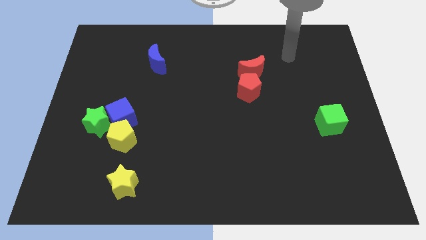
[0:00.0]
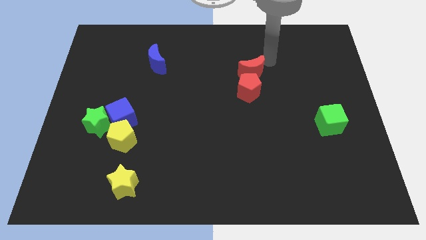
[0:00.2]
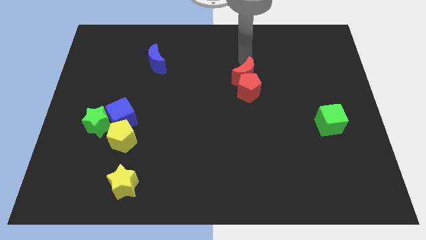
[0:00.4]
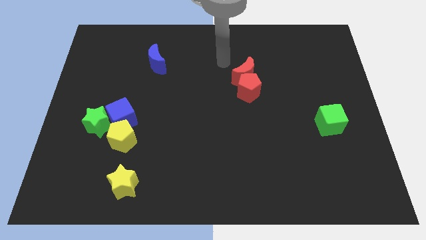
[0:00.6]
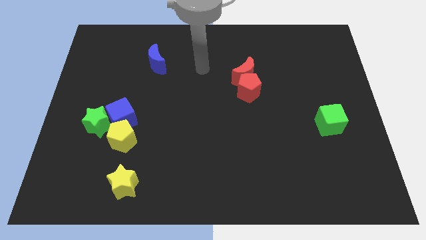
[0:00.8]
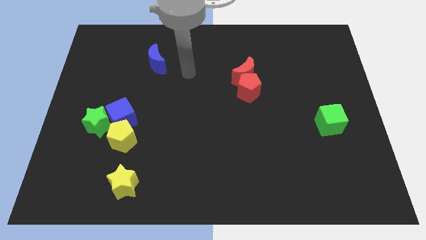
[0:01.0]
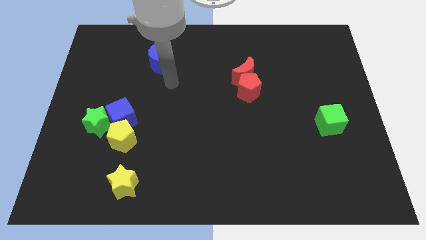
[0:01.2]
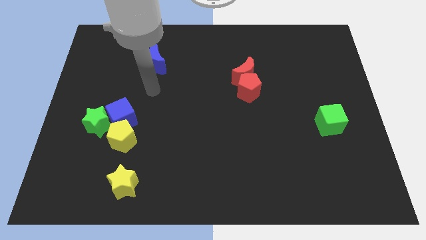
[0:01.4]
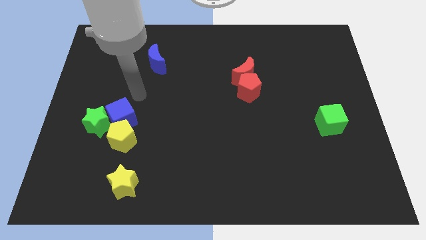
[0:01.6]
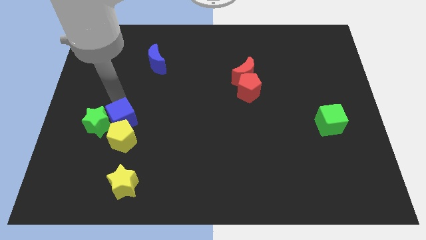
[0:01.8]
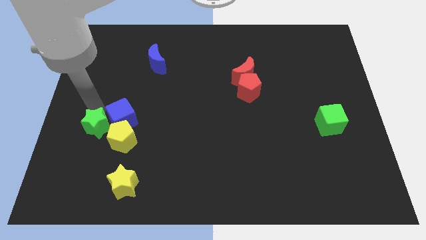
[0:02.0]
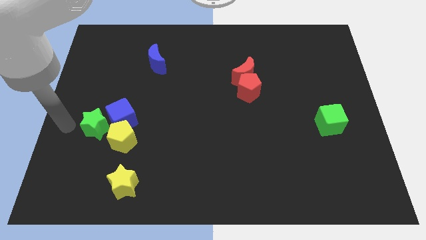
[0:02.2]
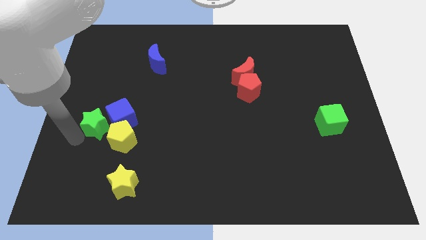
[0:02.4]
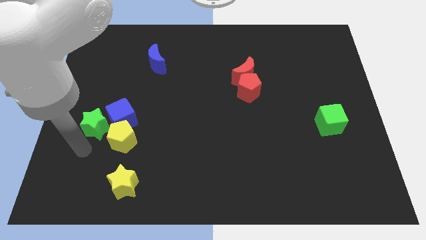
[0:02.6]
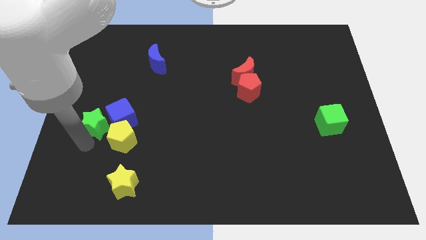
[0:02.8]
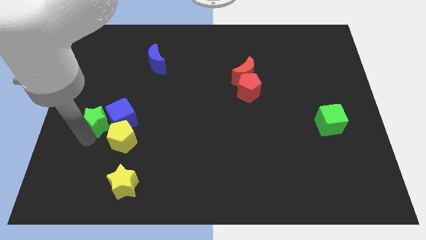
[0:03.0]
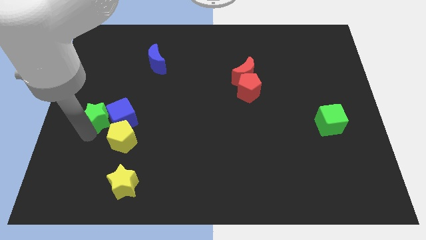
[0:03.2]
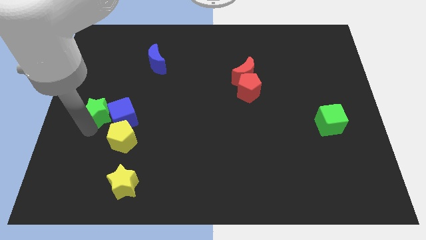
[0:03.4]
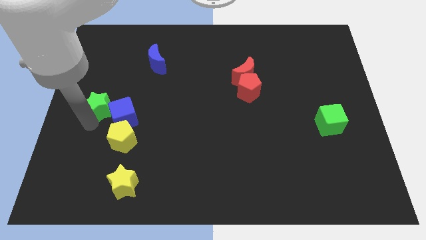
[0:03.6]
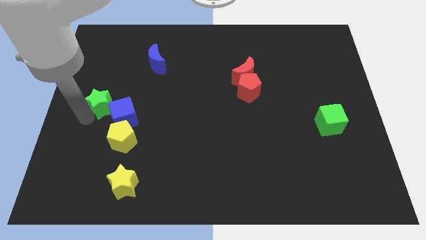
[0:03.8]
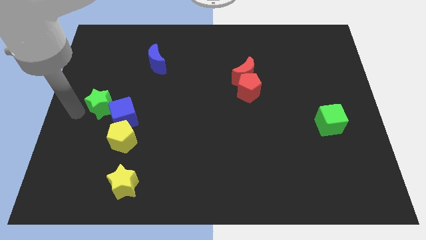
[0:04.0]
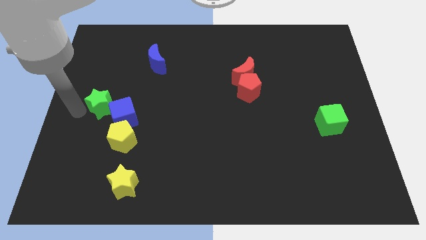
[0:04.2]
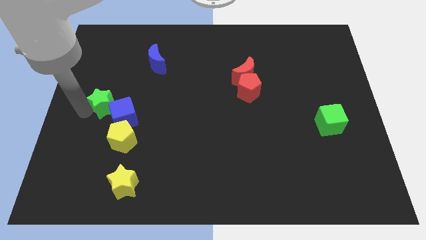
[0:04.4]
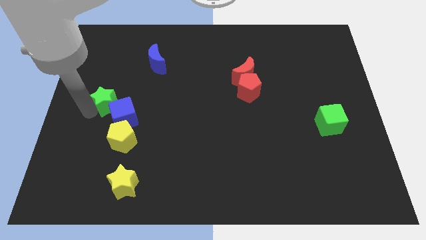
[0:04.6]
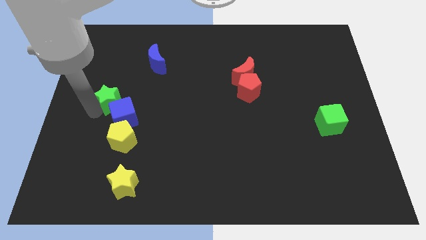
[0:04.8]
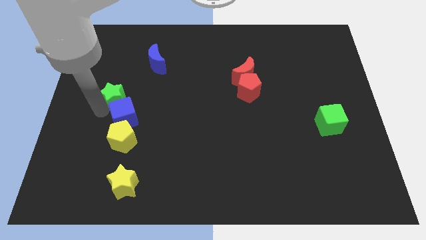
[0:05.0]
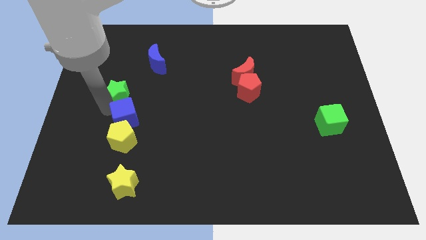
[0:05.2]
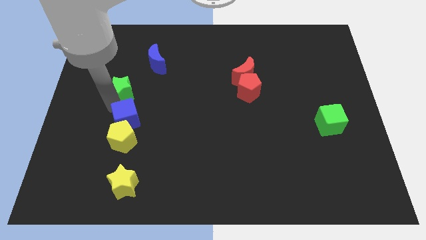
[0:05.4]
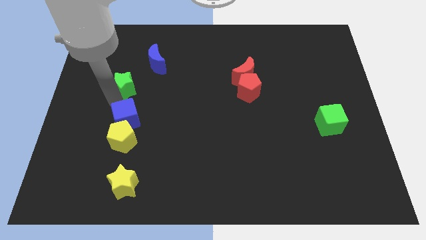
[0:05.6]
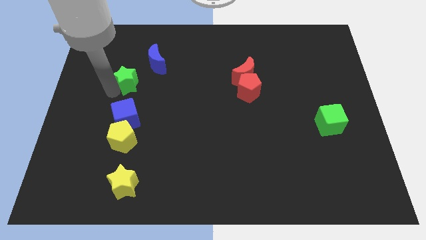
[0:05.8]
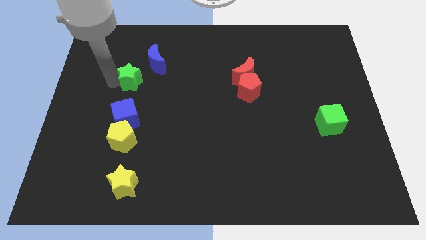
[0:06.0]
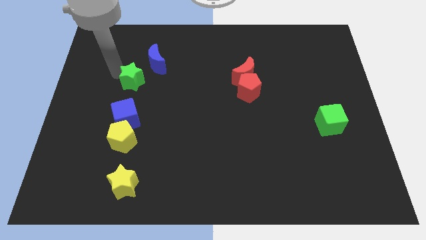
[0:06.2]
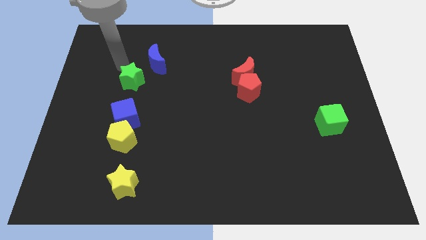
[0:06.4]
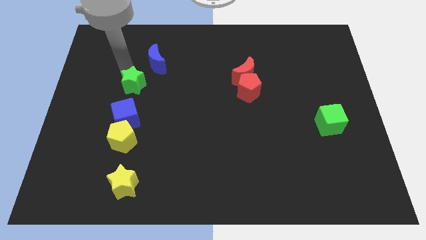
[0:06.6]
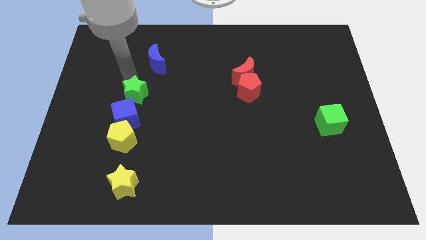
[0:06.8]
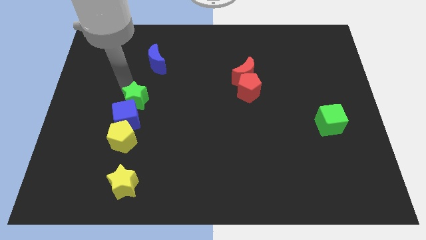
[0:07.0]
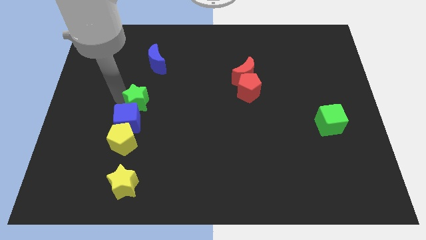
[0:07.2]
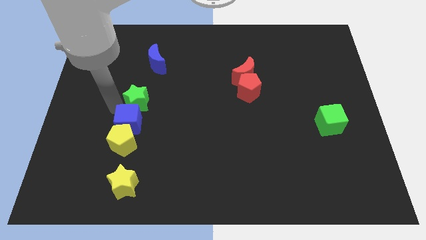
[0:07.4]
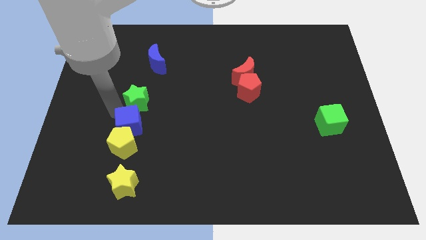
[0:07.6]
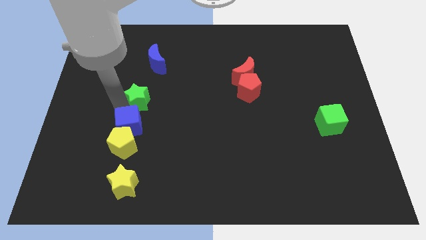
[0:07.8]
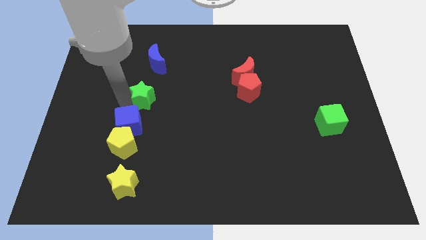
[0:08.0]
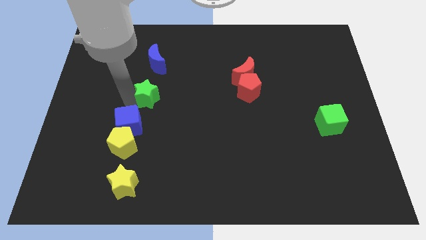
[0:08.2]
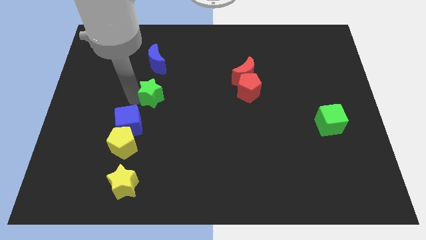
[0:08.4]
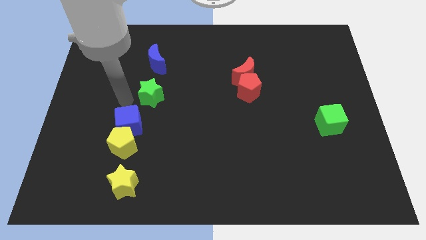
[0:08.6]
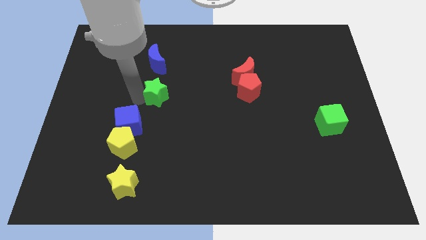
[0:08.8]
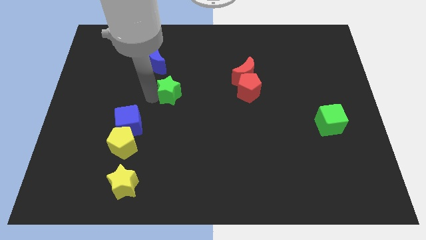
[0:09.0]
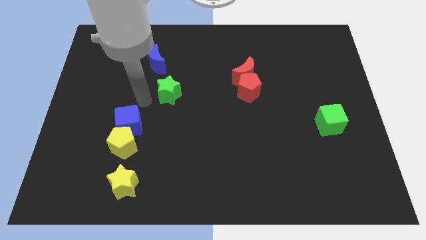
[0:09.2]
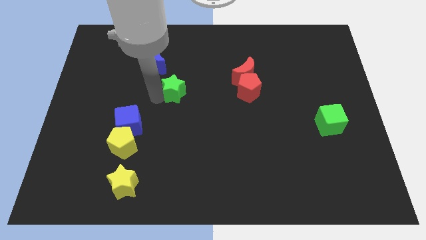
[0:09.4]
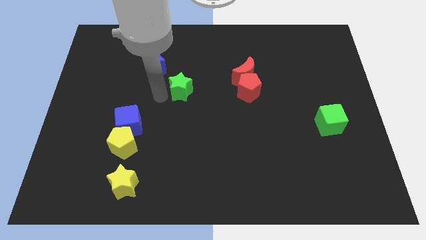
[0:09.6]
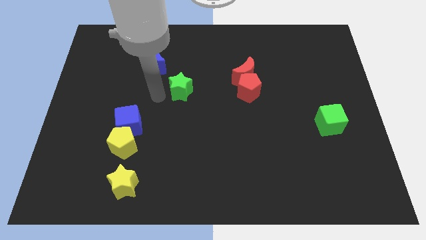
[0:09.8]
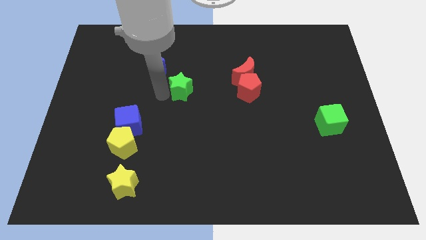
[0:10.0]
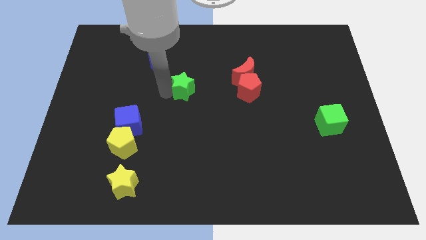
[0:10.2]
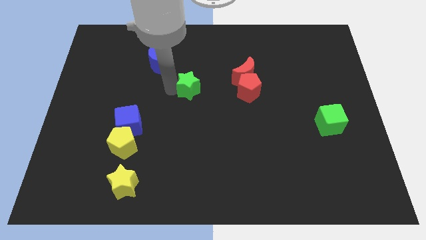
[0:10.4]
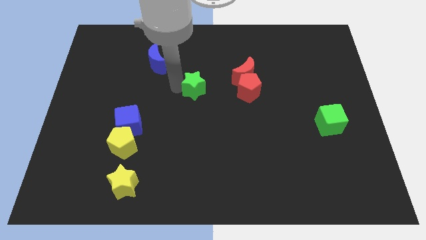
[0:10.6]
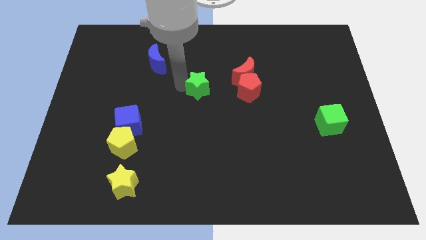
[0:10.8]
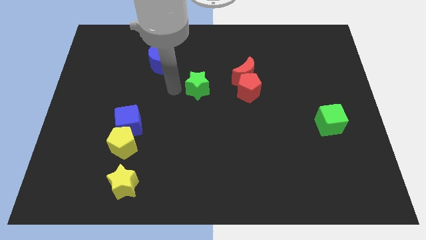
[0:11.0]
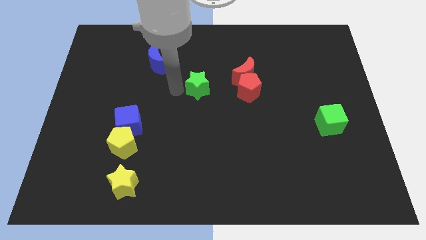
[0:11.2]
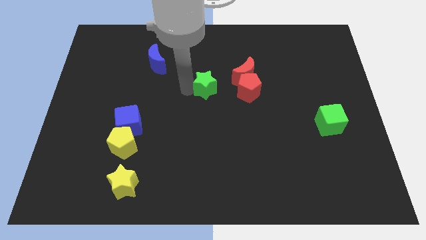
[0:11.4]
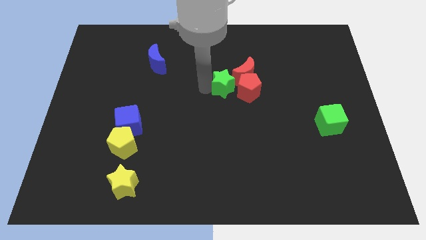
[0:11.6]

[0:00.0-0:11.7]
slide the green star towards the red pentagon

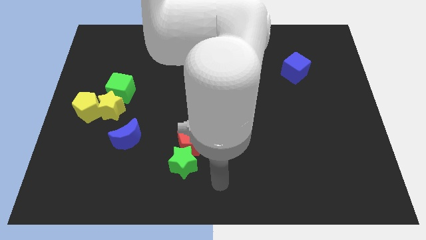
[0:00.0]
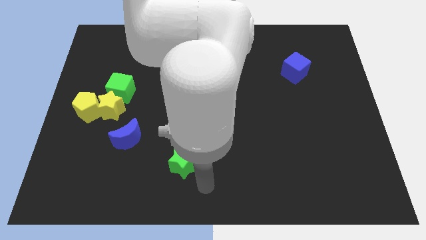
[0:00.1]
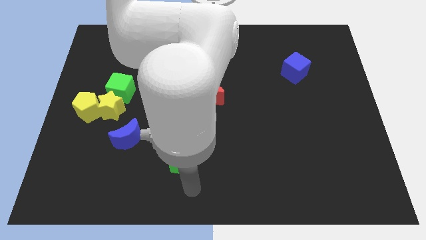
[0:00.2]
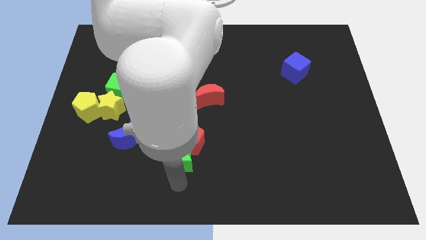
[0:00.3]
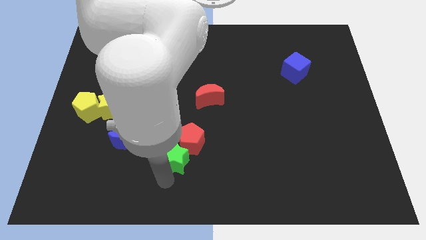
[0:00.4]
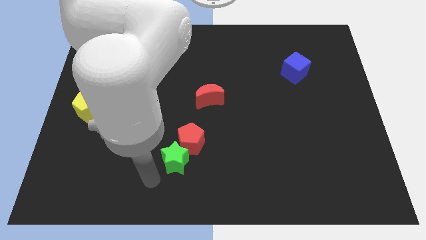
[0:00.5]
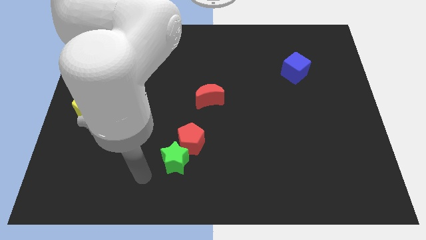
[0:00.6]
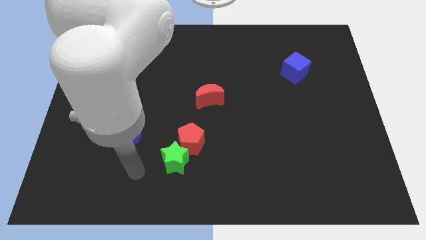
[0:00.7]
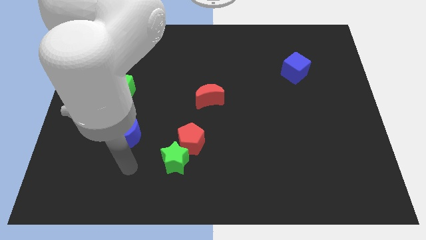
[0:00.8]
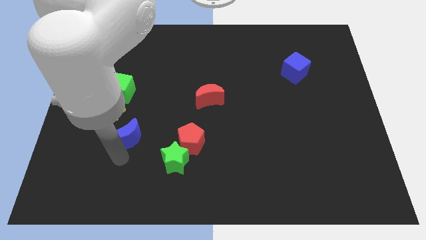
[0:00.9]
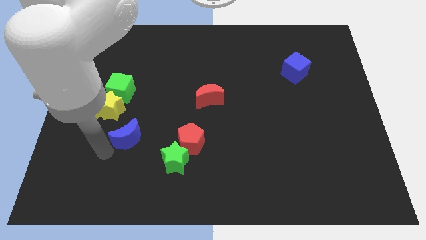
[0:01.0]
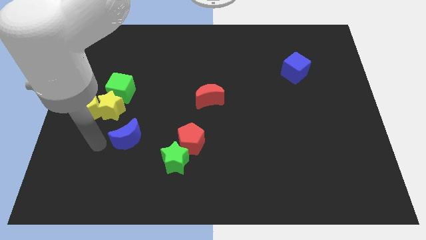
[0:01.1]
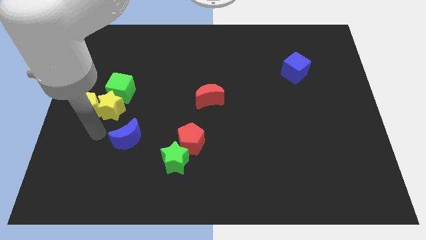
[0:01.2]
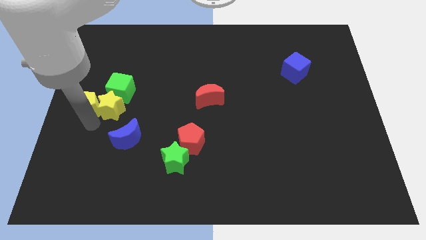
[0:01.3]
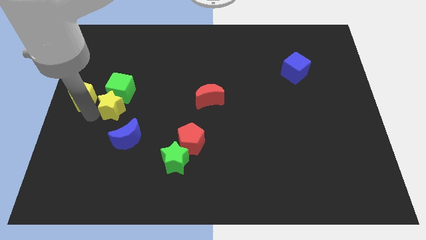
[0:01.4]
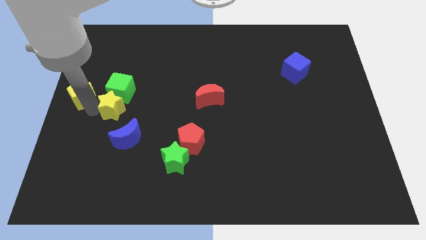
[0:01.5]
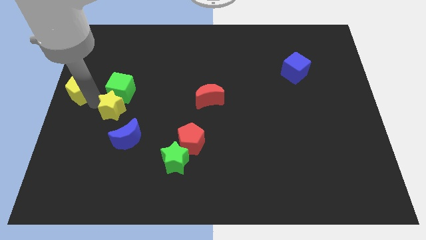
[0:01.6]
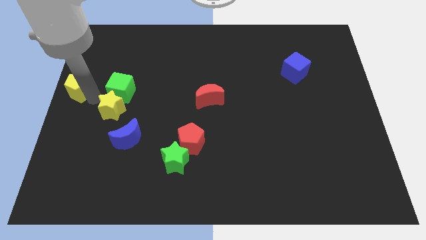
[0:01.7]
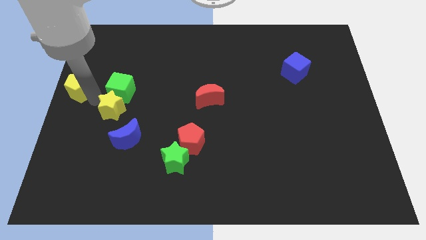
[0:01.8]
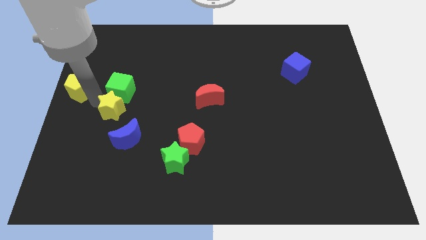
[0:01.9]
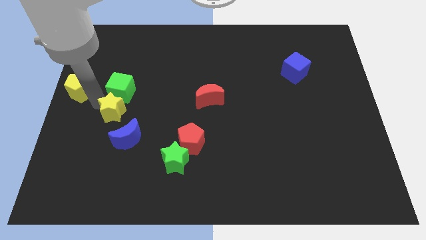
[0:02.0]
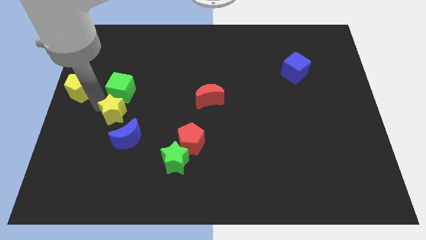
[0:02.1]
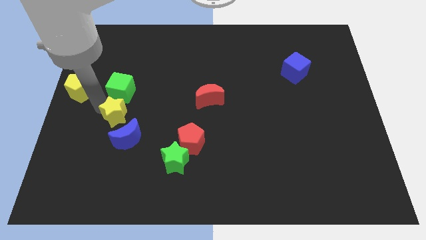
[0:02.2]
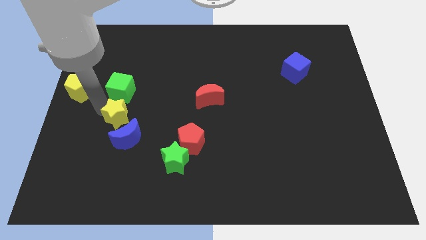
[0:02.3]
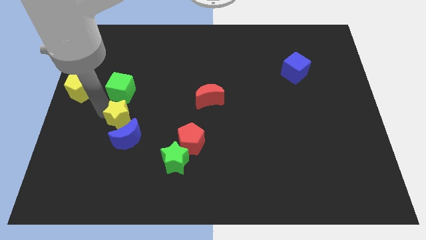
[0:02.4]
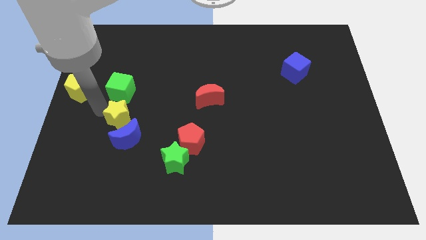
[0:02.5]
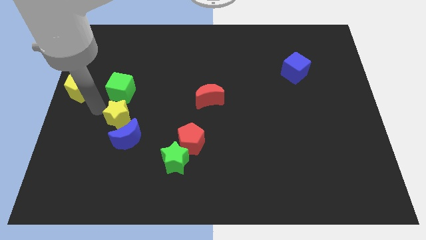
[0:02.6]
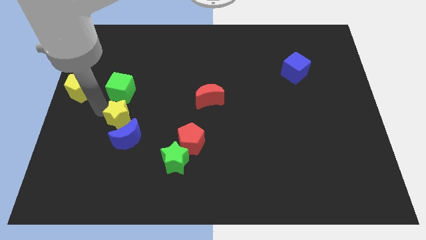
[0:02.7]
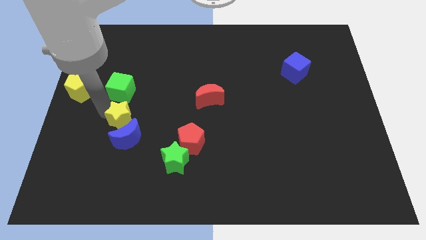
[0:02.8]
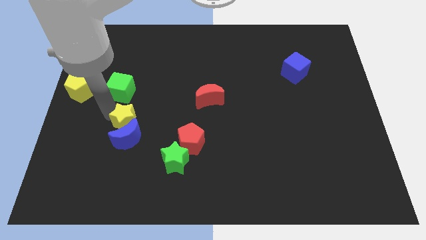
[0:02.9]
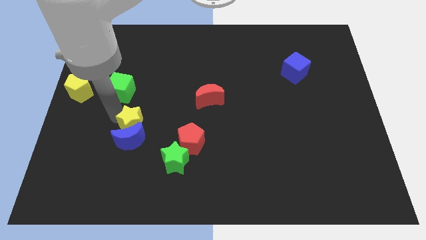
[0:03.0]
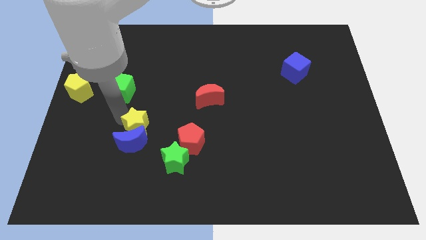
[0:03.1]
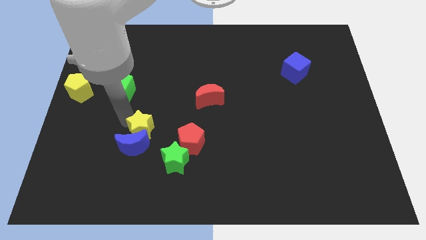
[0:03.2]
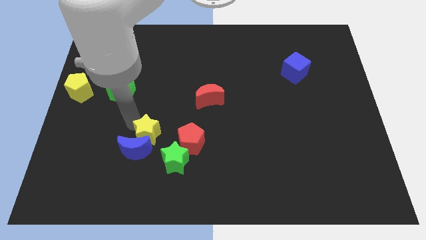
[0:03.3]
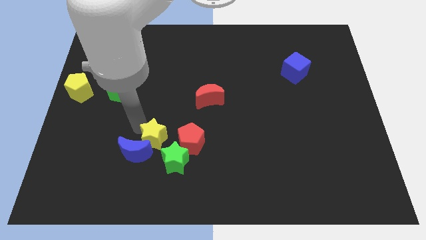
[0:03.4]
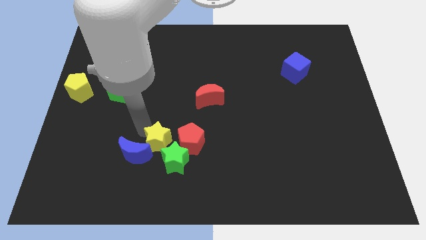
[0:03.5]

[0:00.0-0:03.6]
put the yellow star next to the green star
